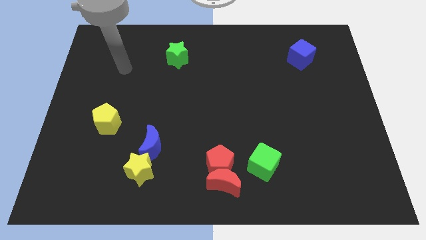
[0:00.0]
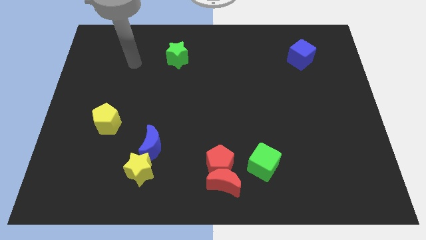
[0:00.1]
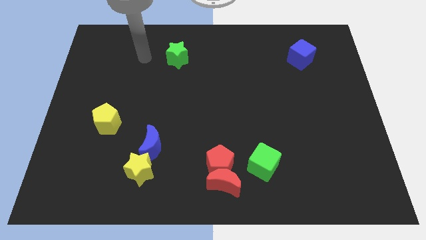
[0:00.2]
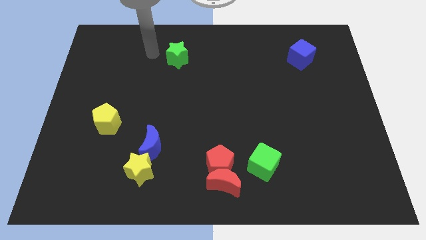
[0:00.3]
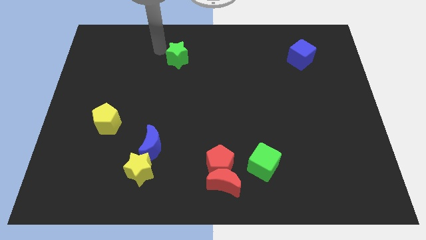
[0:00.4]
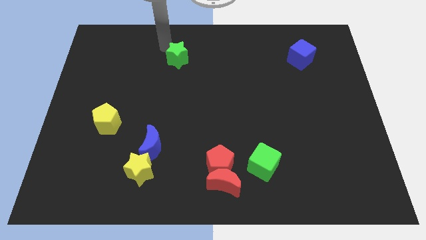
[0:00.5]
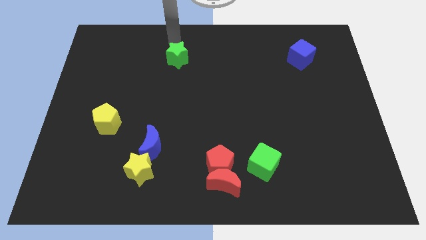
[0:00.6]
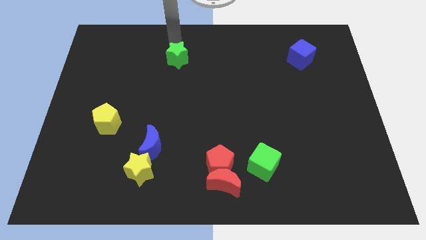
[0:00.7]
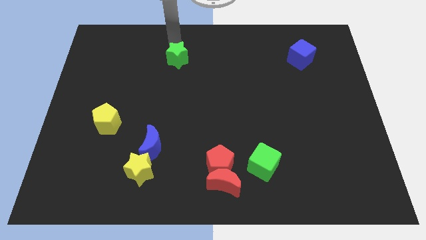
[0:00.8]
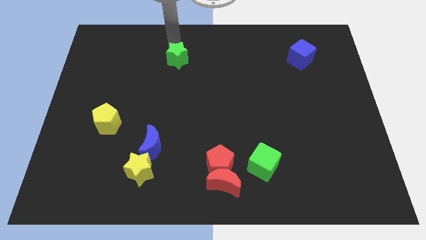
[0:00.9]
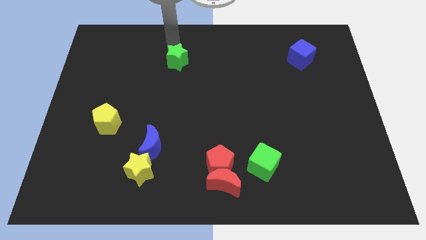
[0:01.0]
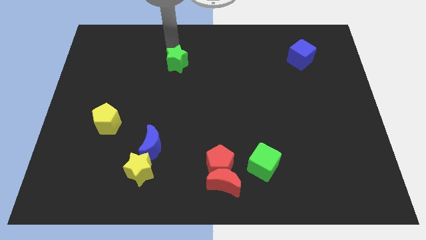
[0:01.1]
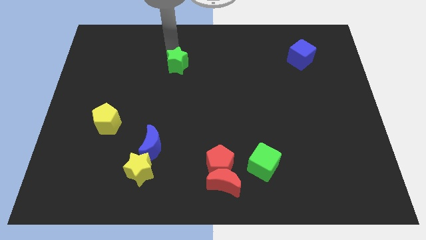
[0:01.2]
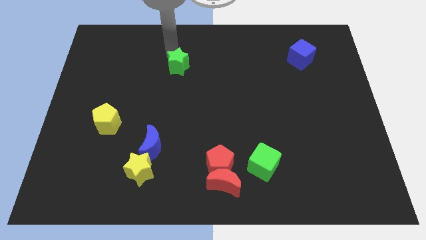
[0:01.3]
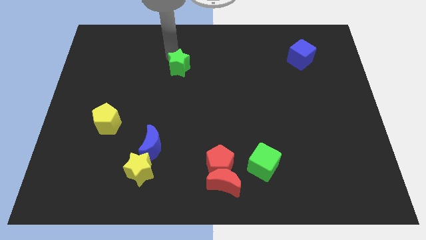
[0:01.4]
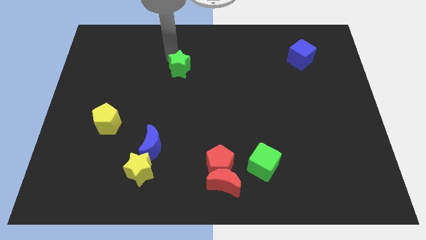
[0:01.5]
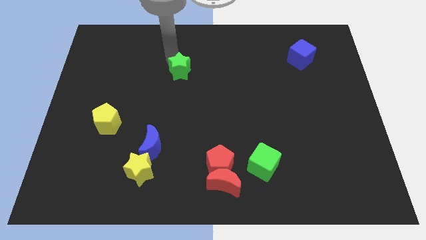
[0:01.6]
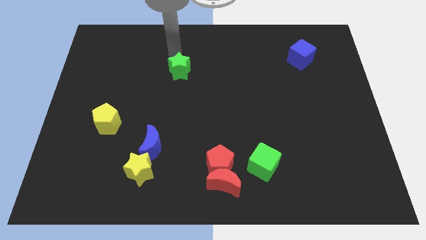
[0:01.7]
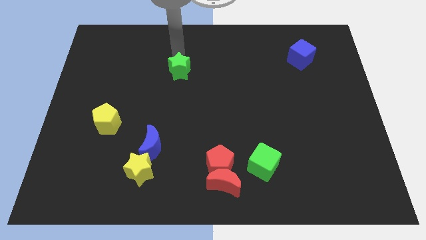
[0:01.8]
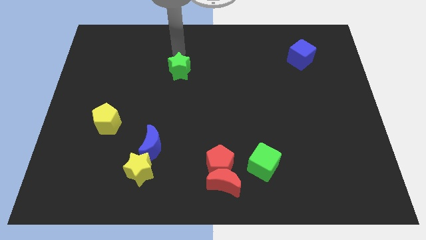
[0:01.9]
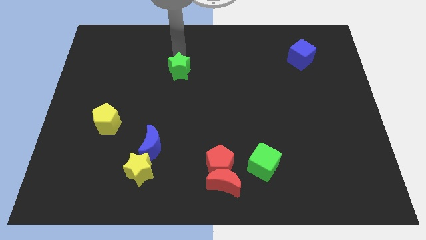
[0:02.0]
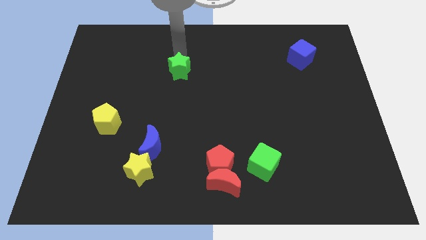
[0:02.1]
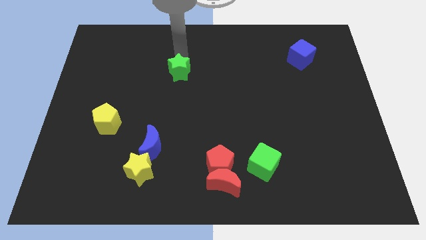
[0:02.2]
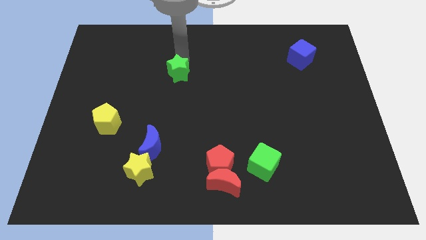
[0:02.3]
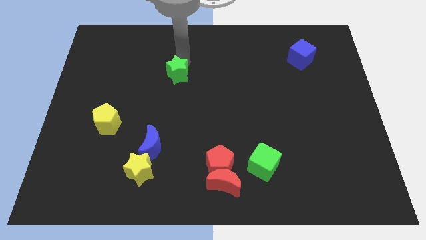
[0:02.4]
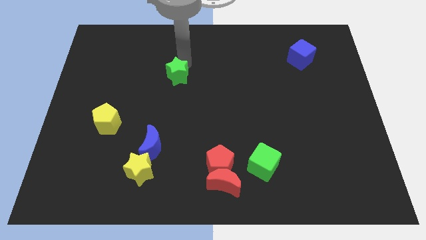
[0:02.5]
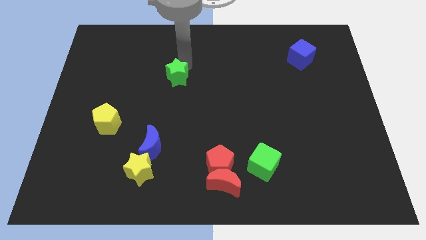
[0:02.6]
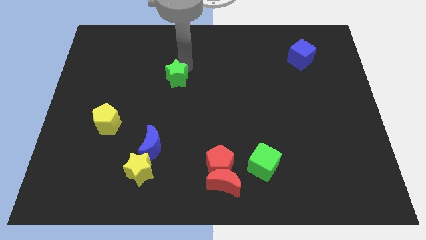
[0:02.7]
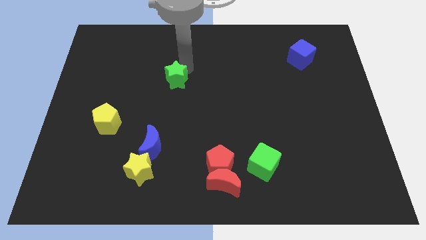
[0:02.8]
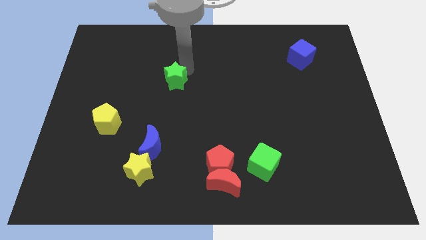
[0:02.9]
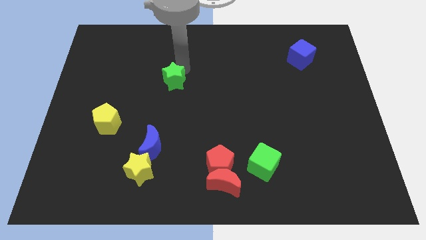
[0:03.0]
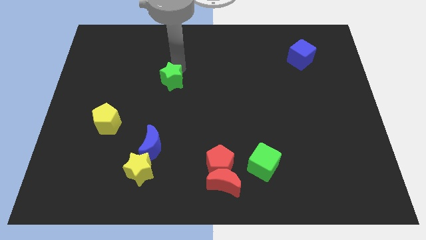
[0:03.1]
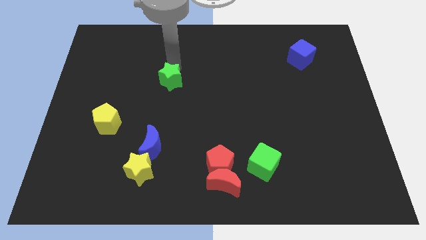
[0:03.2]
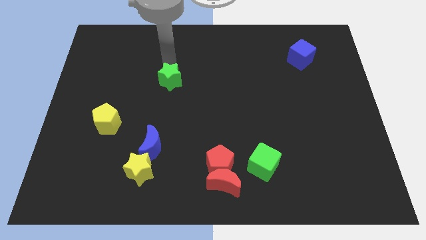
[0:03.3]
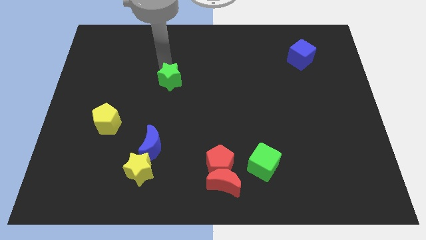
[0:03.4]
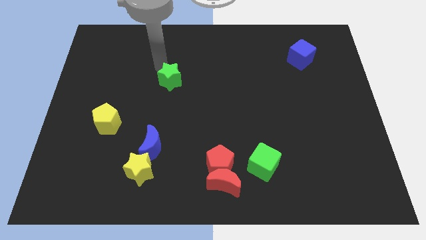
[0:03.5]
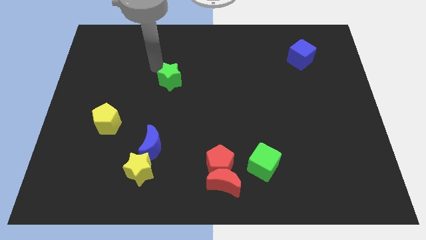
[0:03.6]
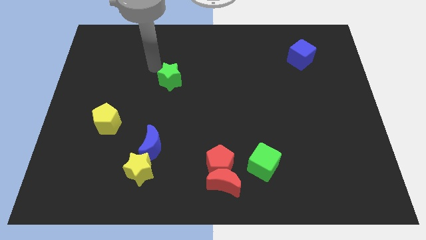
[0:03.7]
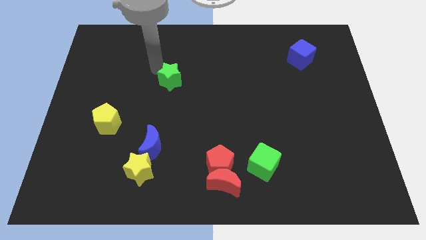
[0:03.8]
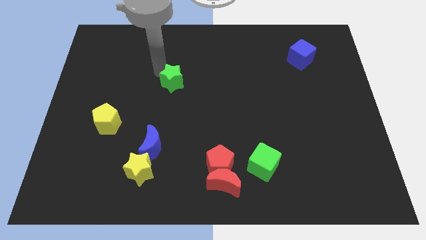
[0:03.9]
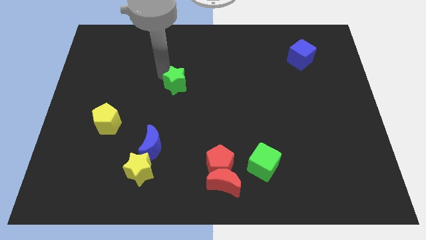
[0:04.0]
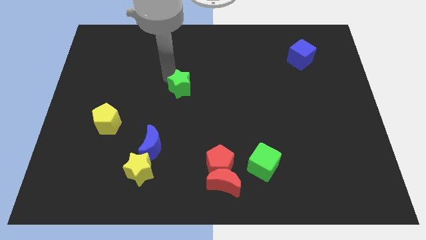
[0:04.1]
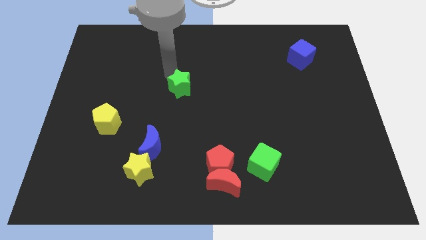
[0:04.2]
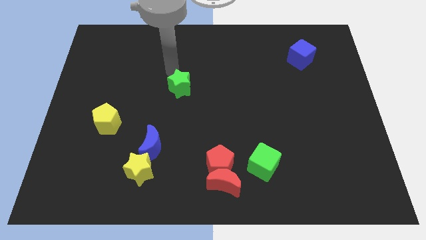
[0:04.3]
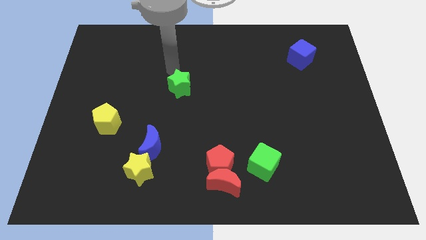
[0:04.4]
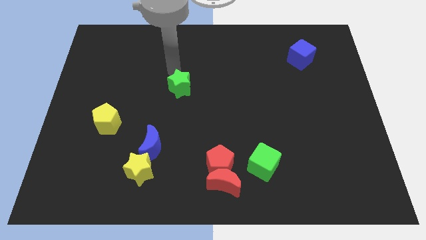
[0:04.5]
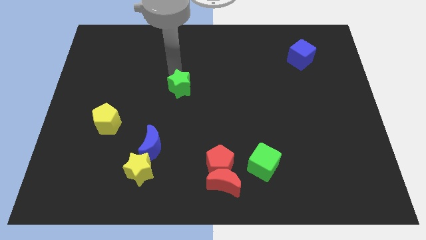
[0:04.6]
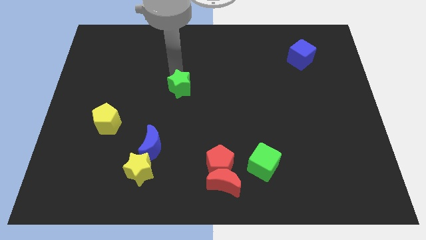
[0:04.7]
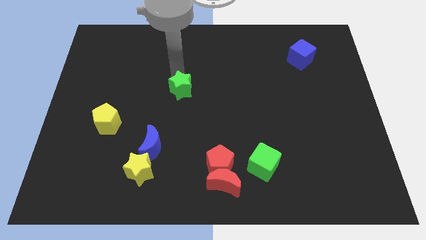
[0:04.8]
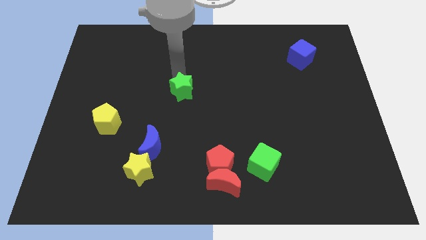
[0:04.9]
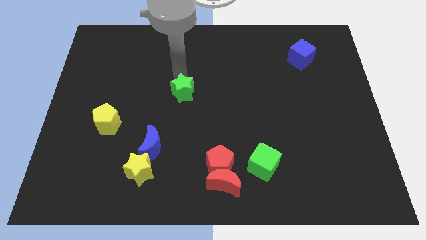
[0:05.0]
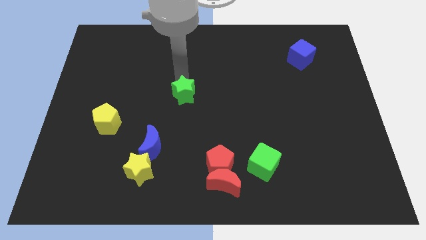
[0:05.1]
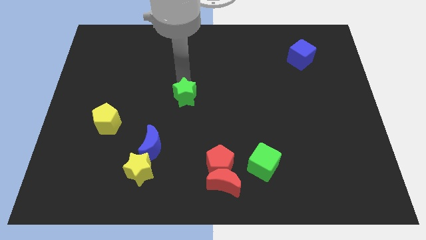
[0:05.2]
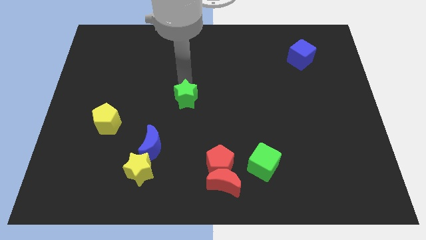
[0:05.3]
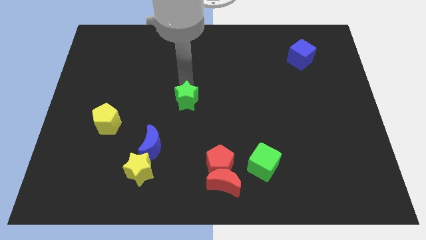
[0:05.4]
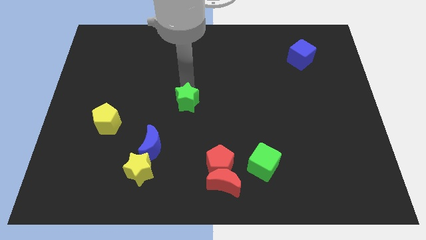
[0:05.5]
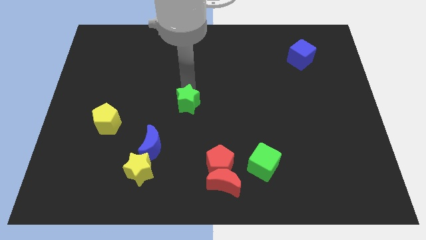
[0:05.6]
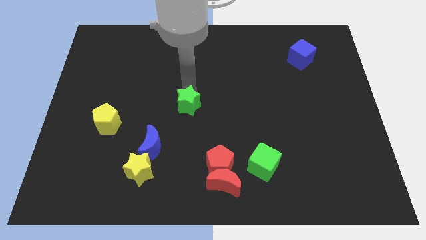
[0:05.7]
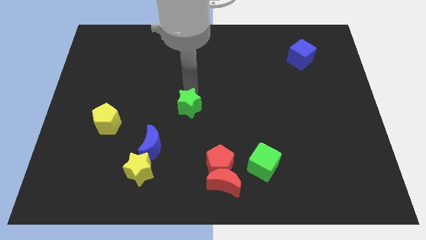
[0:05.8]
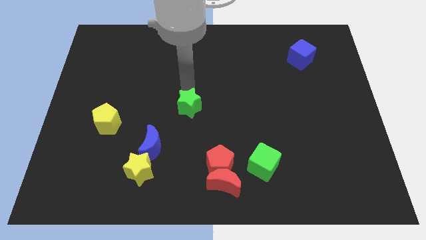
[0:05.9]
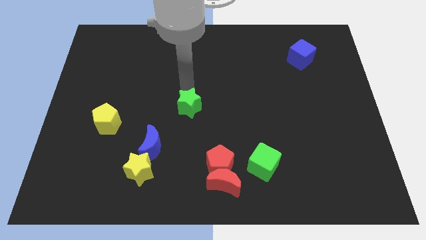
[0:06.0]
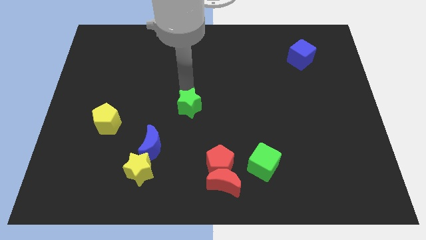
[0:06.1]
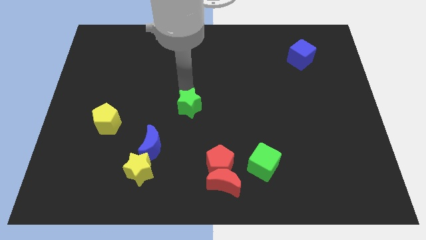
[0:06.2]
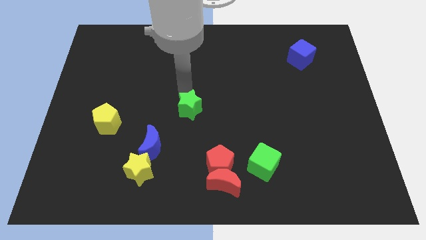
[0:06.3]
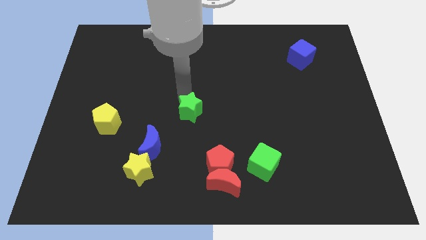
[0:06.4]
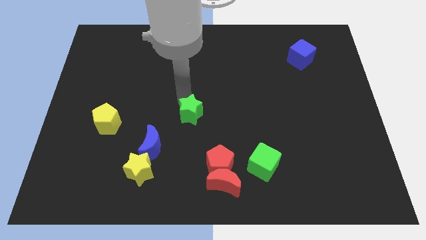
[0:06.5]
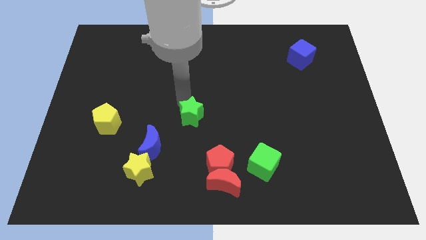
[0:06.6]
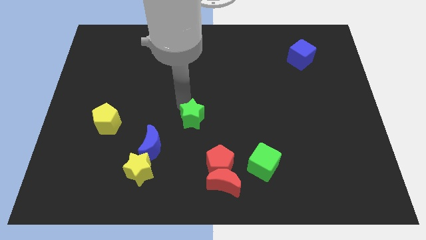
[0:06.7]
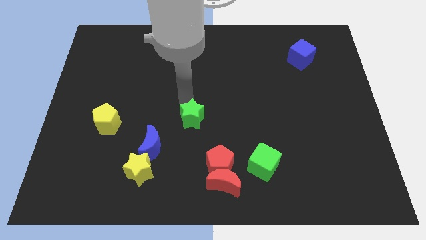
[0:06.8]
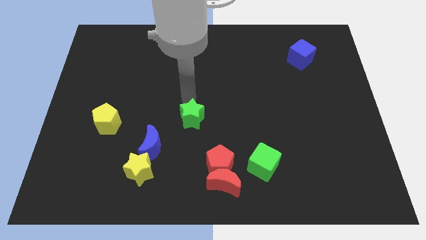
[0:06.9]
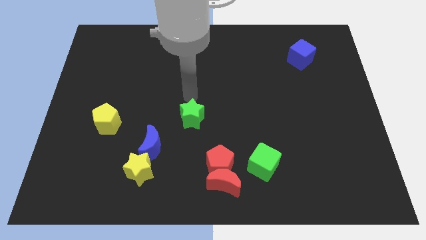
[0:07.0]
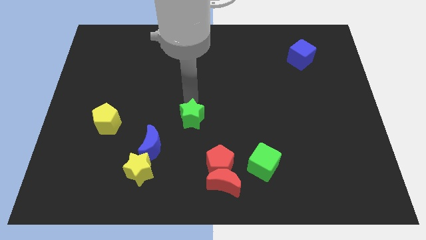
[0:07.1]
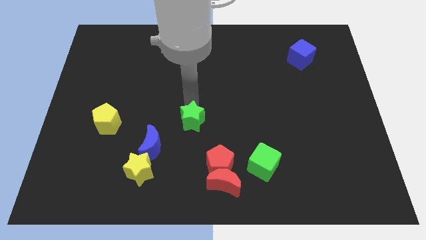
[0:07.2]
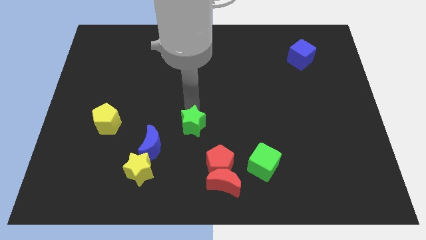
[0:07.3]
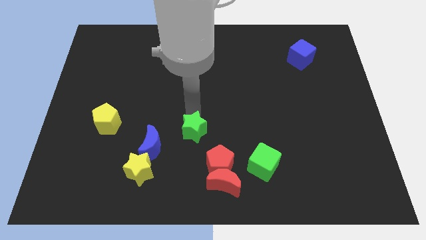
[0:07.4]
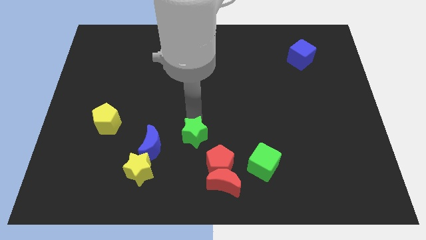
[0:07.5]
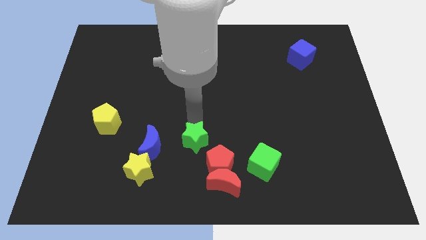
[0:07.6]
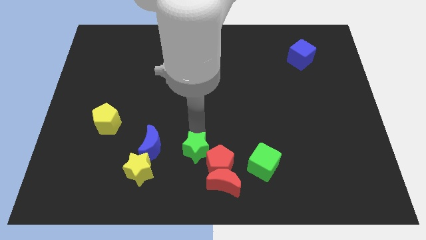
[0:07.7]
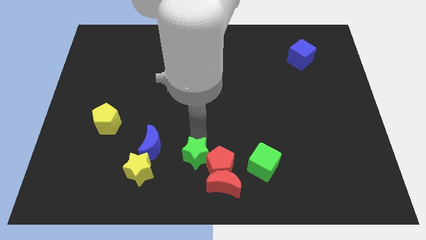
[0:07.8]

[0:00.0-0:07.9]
put the green star to the bottom
